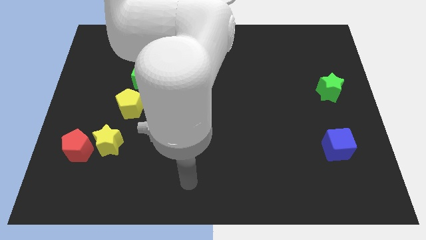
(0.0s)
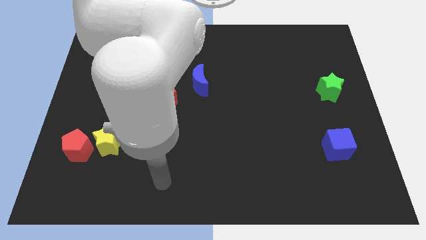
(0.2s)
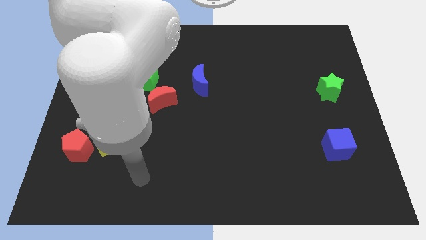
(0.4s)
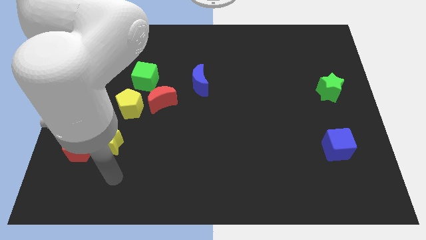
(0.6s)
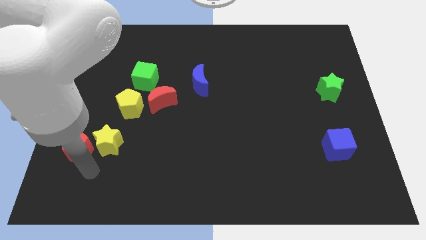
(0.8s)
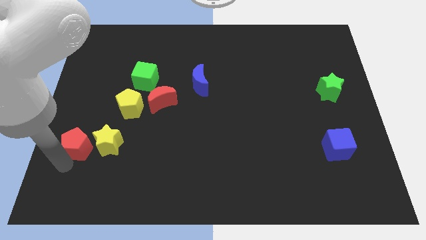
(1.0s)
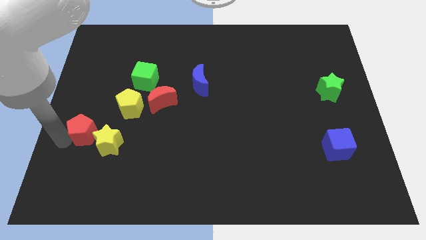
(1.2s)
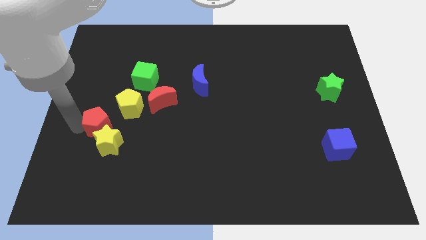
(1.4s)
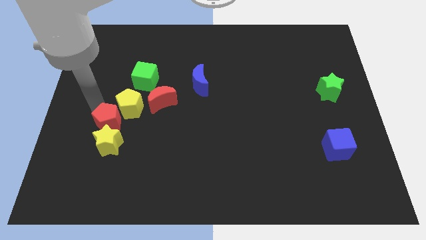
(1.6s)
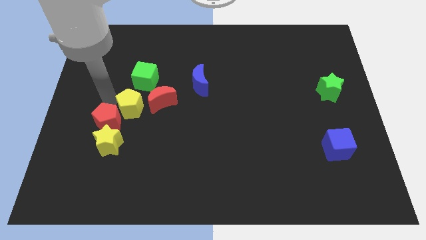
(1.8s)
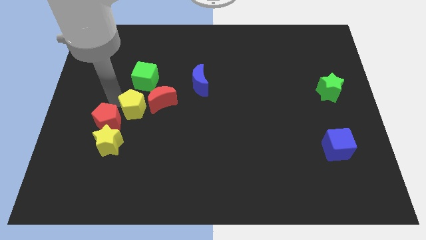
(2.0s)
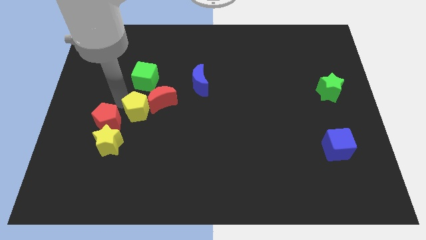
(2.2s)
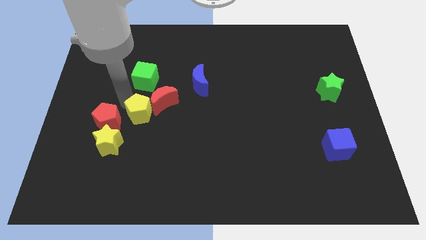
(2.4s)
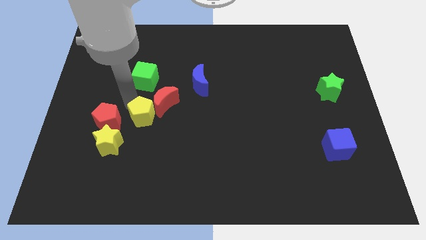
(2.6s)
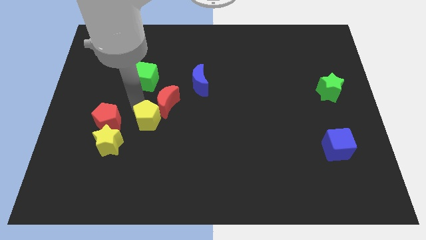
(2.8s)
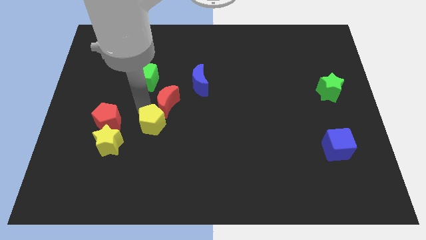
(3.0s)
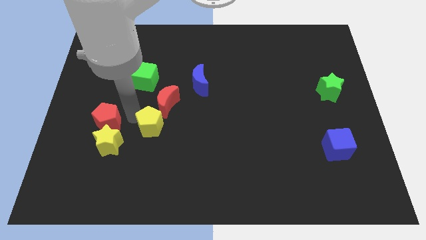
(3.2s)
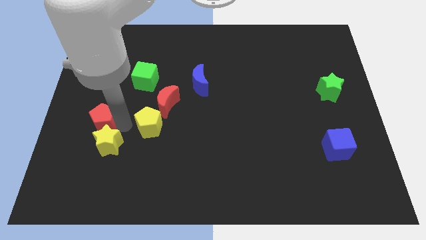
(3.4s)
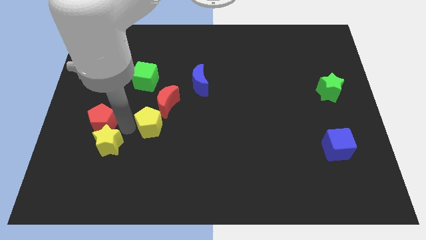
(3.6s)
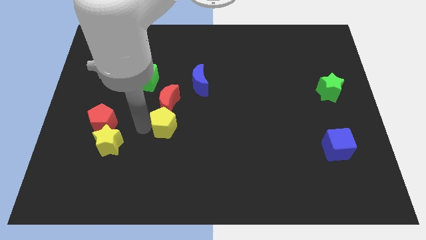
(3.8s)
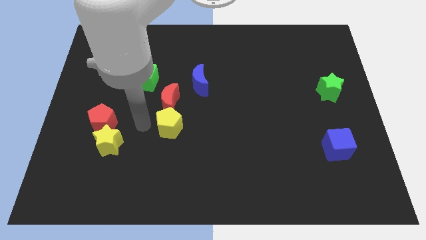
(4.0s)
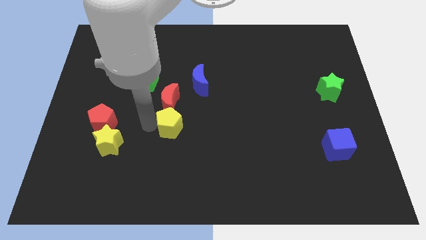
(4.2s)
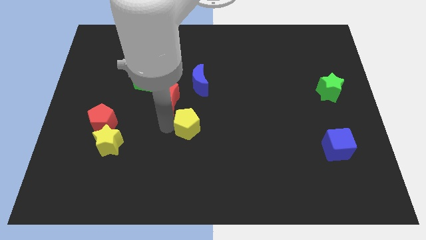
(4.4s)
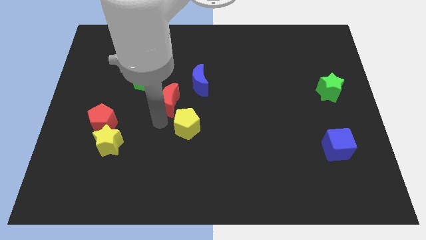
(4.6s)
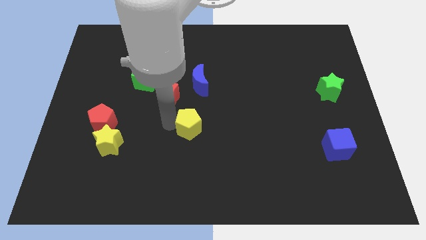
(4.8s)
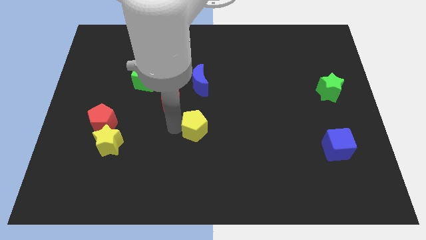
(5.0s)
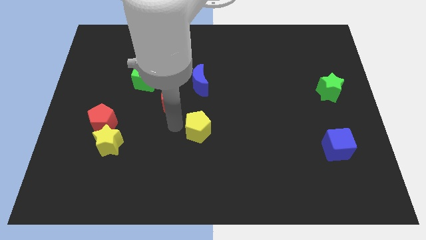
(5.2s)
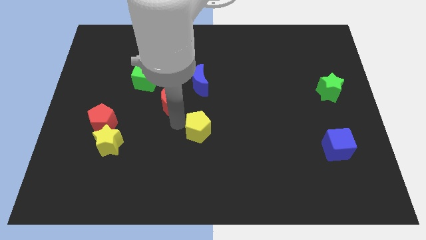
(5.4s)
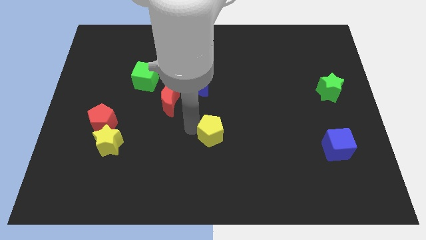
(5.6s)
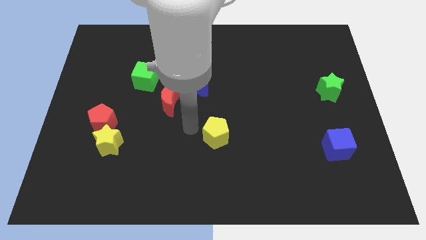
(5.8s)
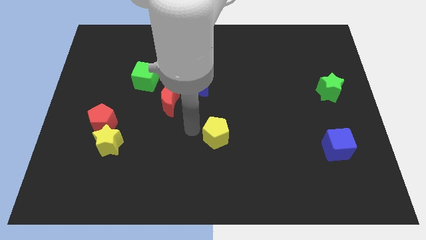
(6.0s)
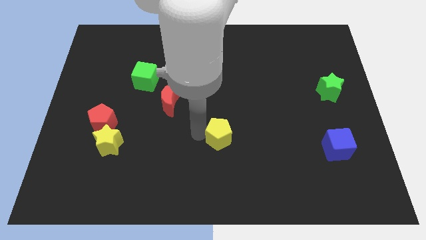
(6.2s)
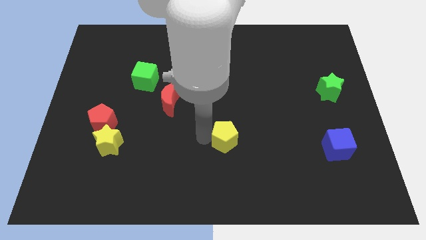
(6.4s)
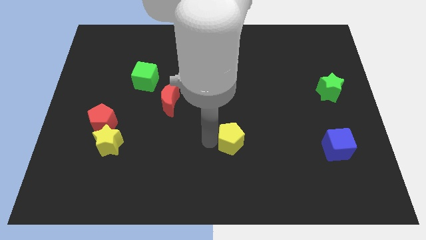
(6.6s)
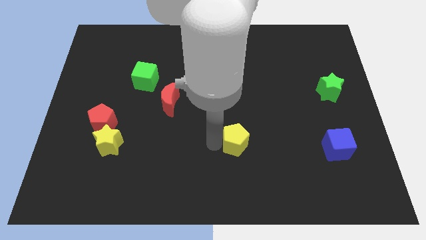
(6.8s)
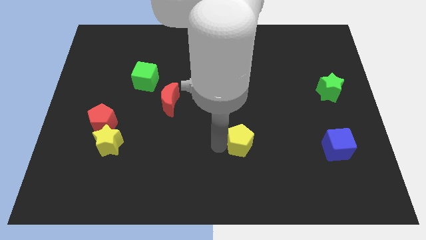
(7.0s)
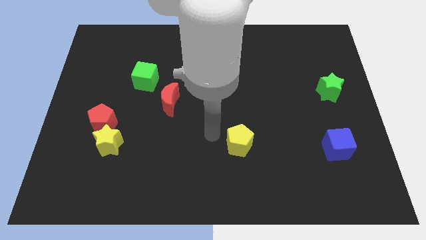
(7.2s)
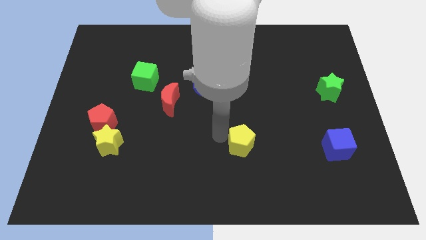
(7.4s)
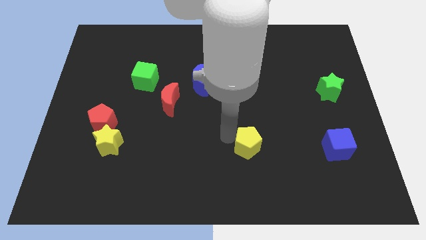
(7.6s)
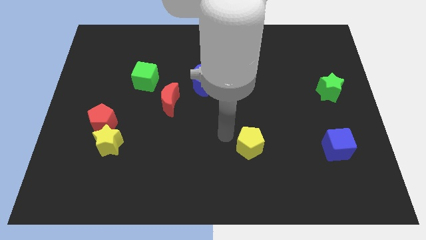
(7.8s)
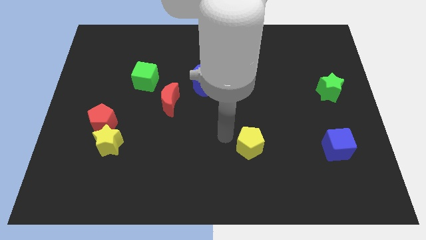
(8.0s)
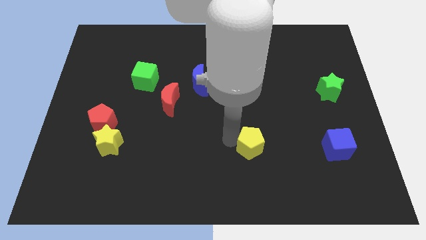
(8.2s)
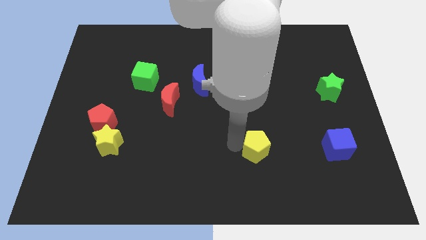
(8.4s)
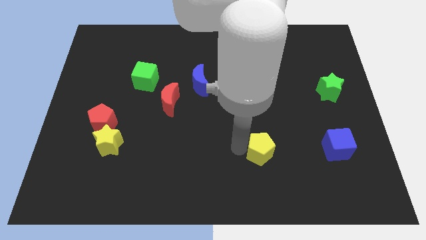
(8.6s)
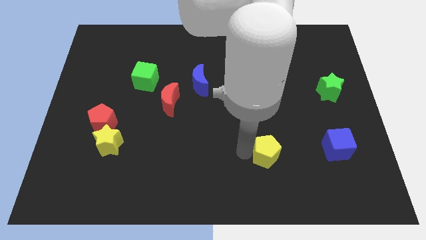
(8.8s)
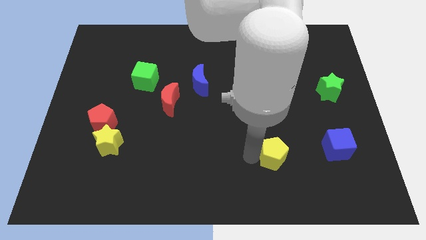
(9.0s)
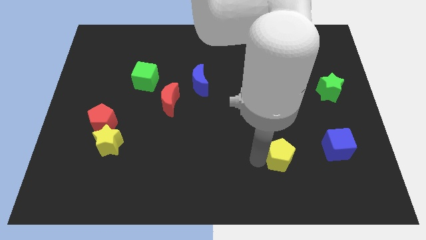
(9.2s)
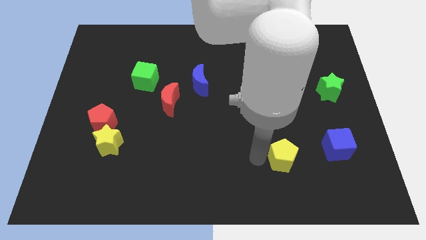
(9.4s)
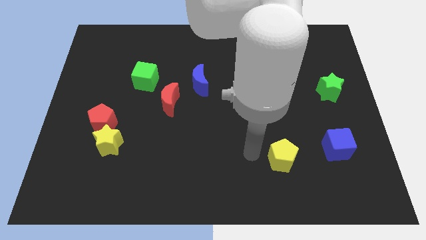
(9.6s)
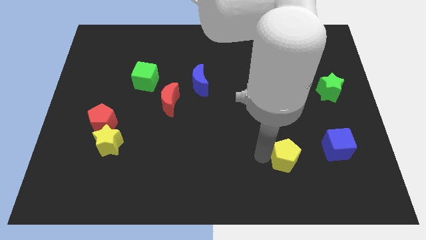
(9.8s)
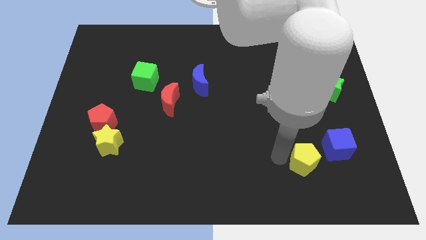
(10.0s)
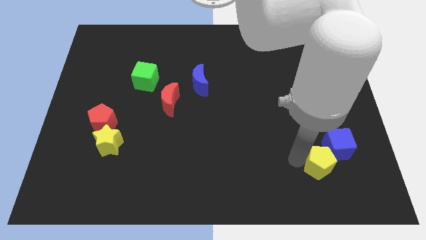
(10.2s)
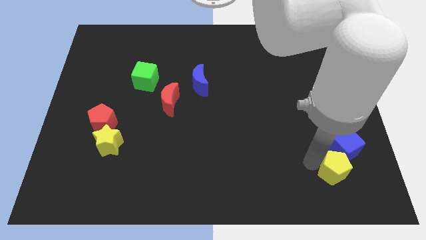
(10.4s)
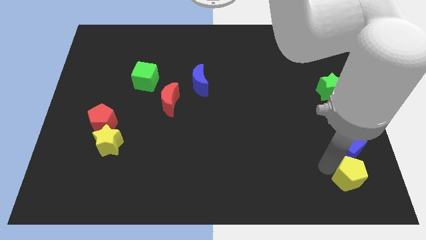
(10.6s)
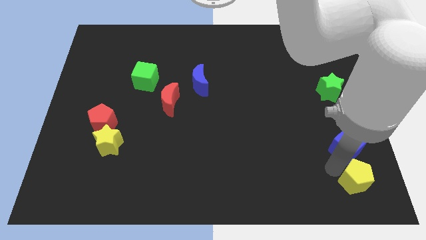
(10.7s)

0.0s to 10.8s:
slide the yellow pentagon to the lower right corner
